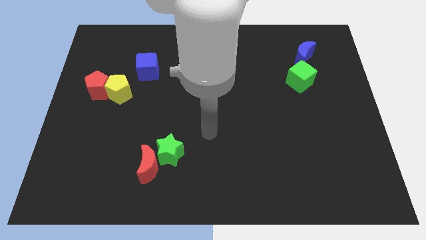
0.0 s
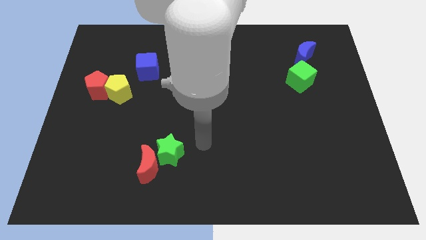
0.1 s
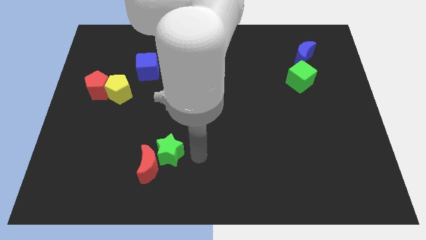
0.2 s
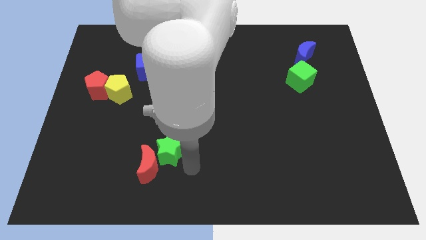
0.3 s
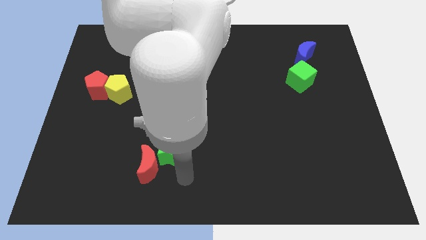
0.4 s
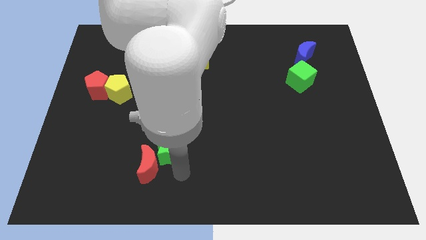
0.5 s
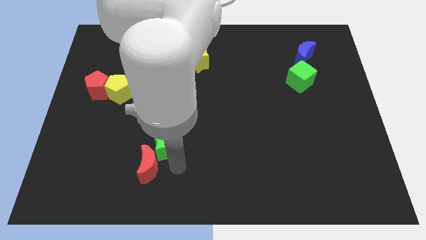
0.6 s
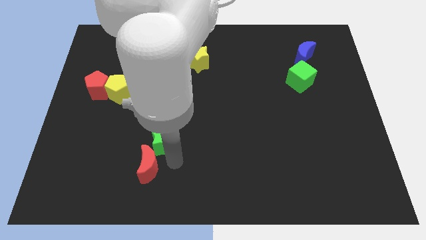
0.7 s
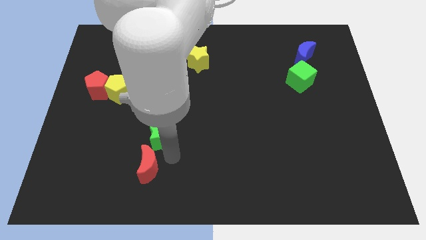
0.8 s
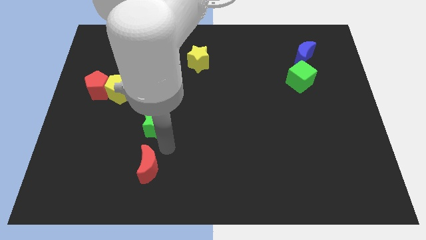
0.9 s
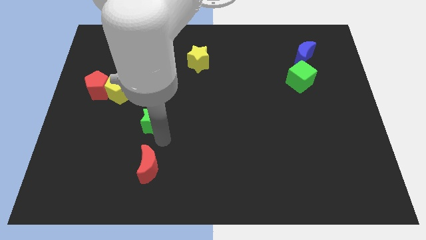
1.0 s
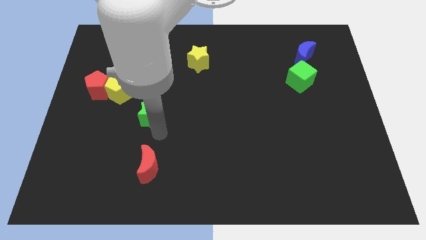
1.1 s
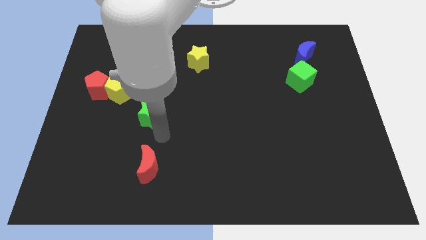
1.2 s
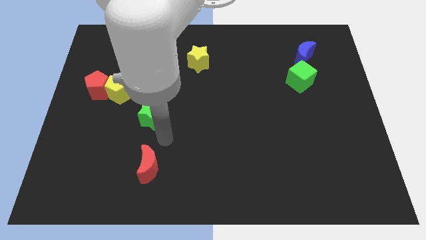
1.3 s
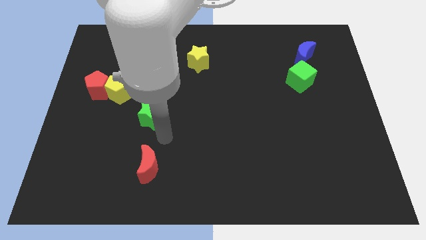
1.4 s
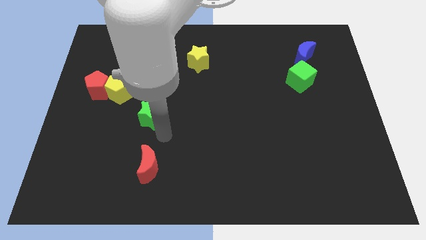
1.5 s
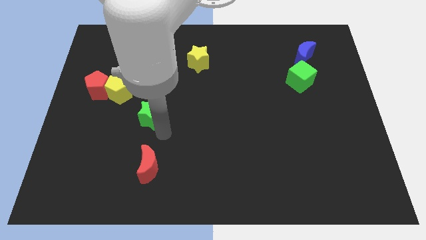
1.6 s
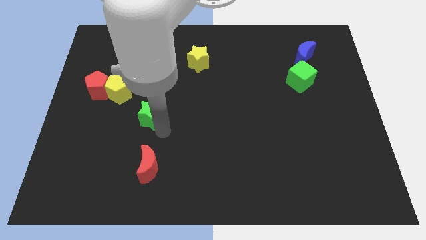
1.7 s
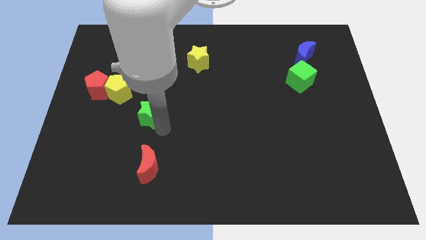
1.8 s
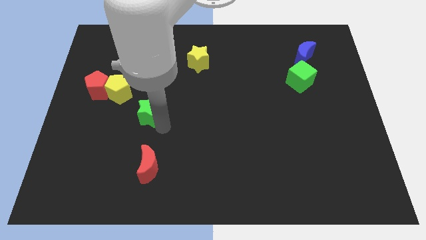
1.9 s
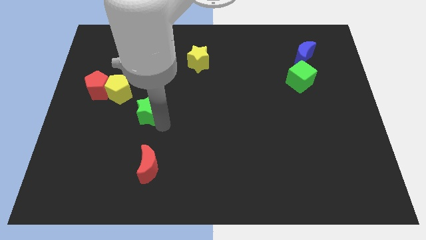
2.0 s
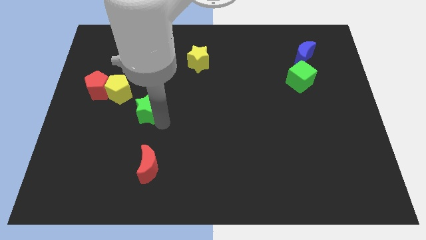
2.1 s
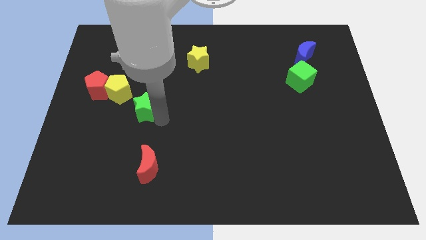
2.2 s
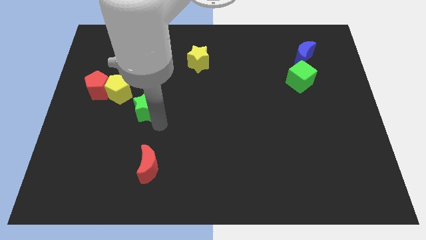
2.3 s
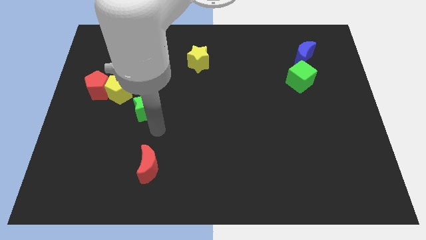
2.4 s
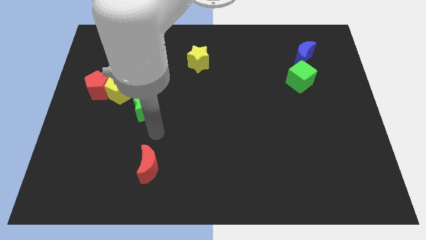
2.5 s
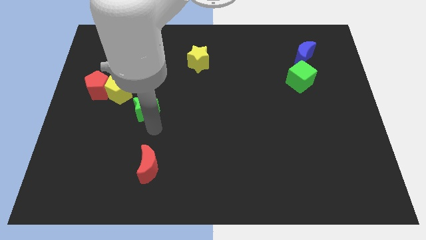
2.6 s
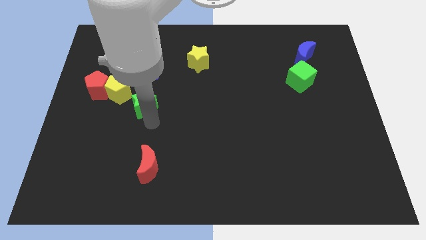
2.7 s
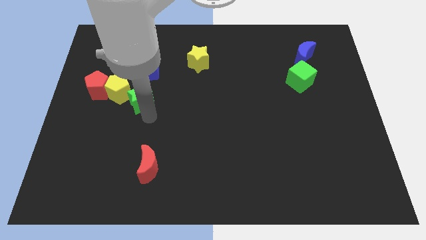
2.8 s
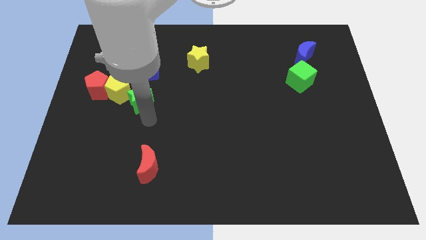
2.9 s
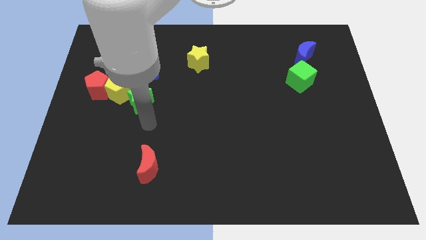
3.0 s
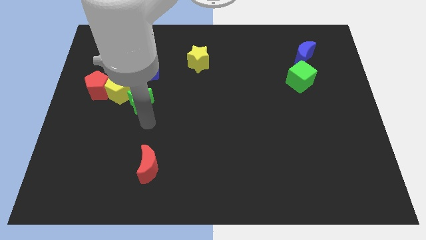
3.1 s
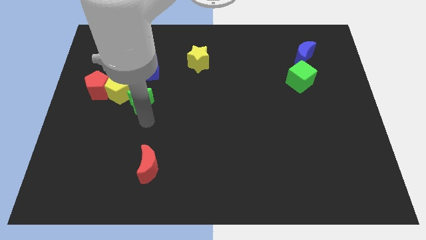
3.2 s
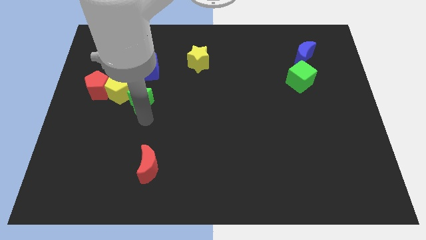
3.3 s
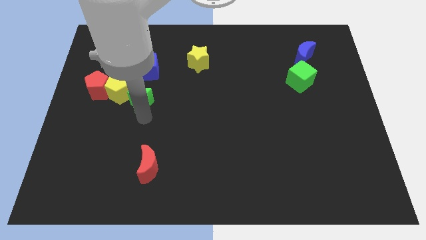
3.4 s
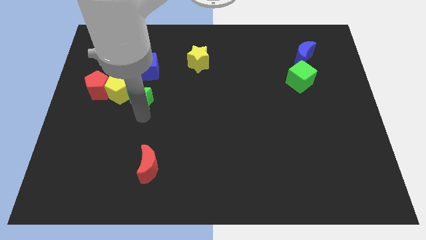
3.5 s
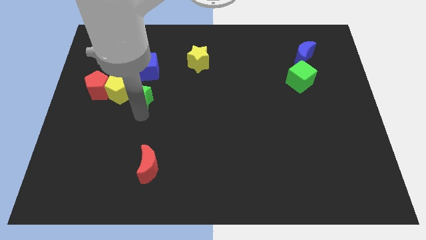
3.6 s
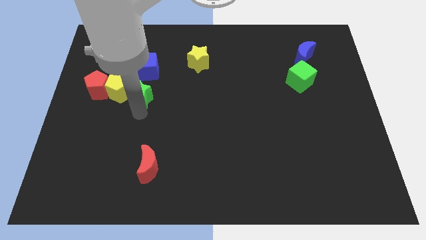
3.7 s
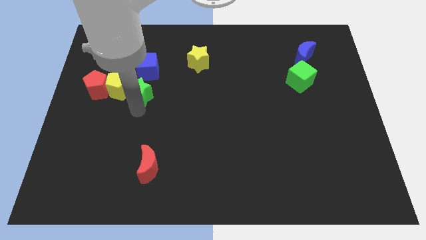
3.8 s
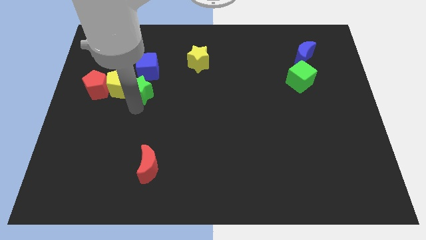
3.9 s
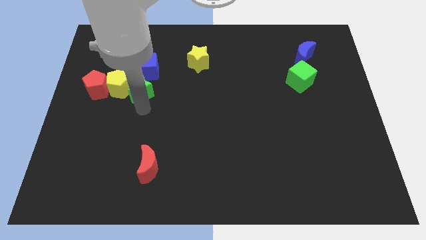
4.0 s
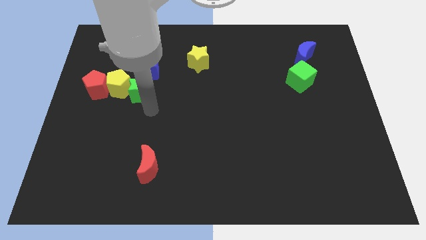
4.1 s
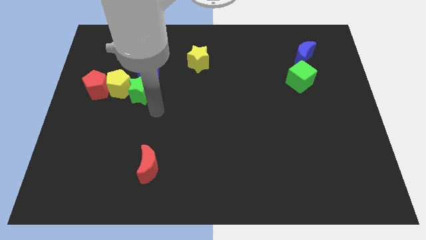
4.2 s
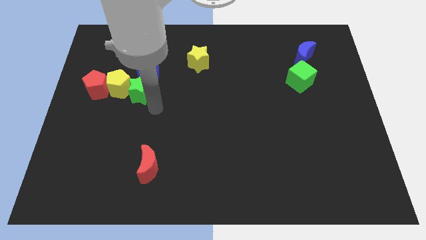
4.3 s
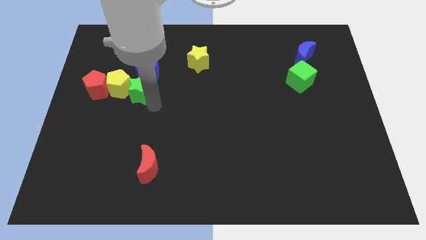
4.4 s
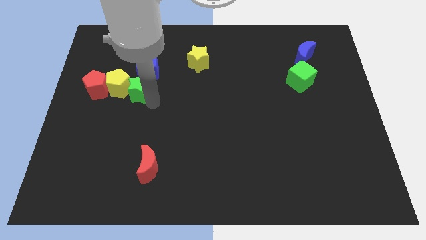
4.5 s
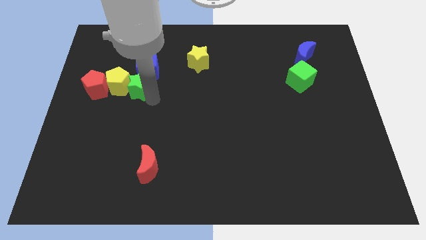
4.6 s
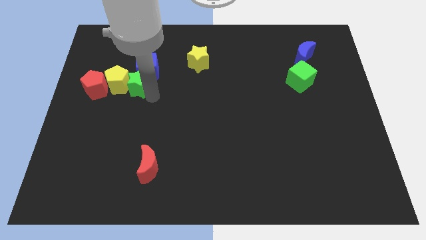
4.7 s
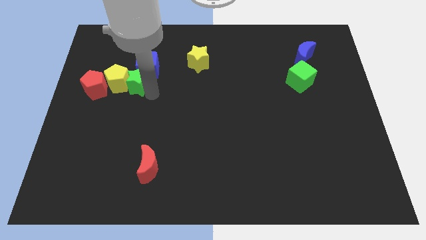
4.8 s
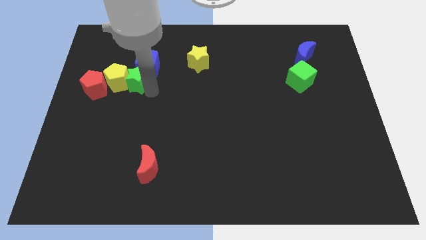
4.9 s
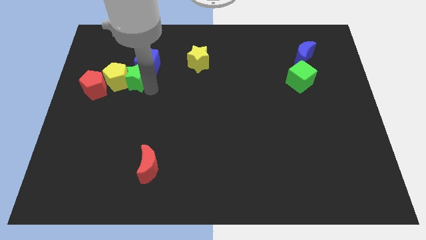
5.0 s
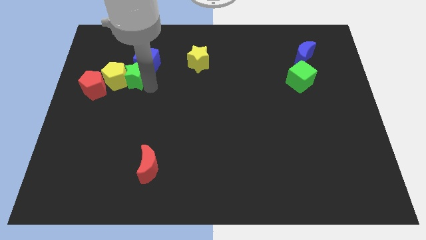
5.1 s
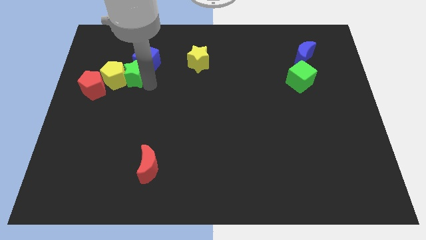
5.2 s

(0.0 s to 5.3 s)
move the green star to the top right side of the red pentagon

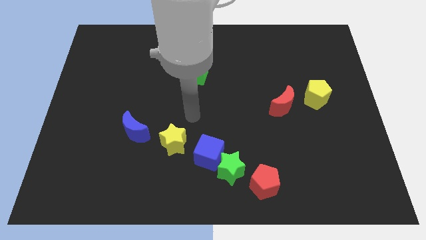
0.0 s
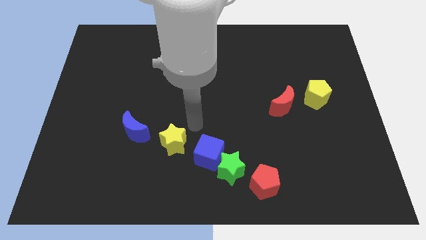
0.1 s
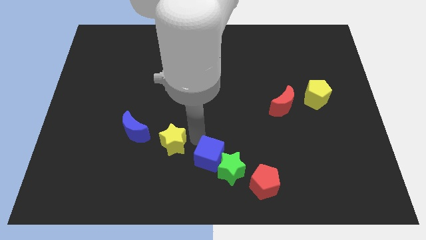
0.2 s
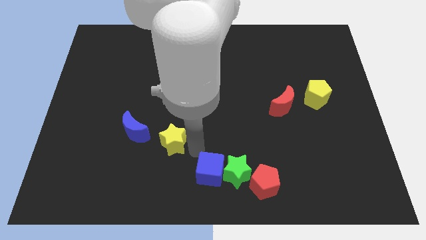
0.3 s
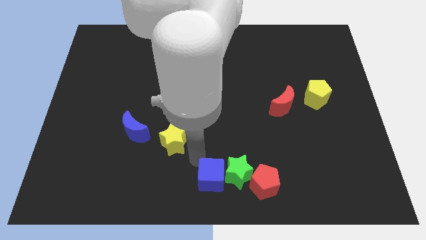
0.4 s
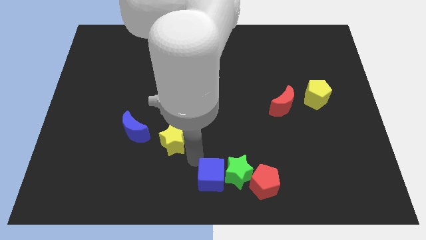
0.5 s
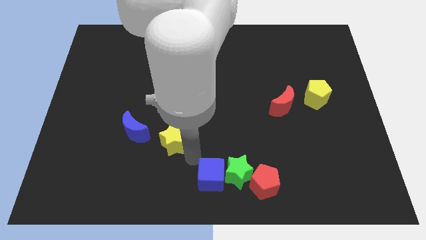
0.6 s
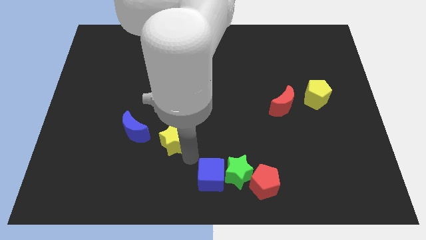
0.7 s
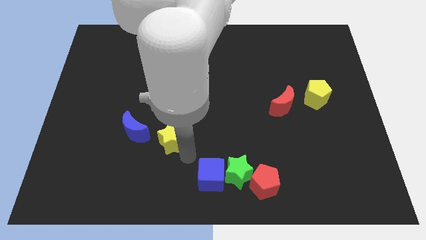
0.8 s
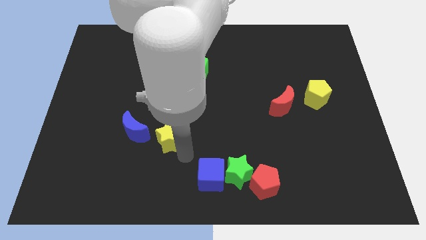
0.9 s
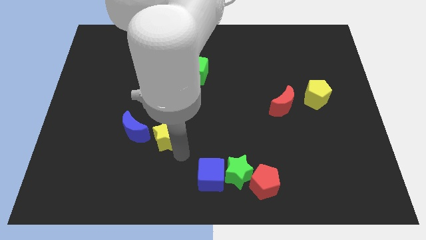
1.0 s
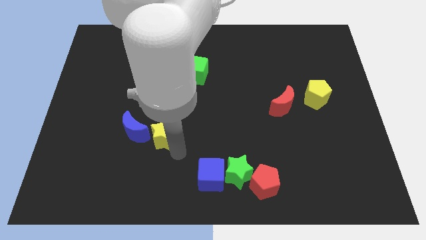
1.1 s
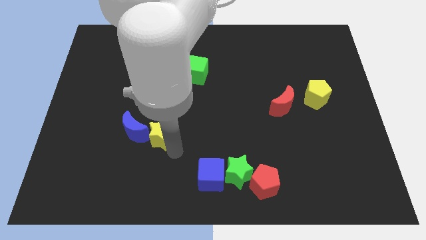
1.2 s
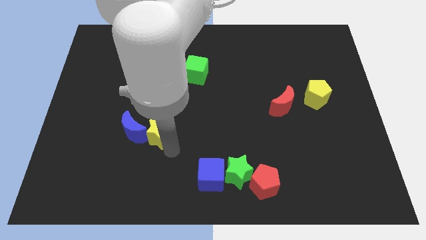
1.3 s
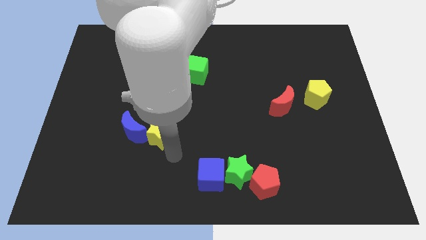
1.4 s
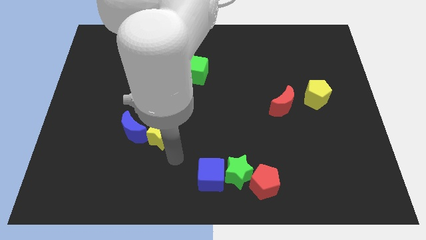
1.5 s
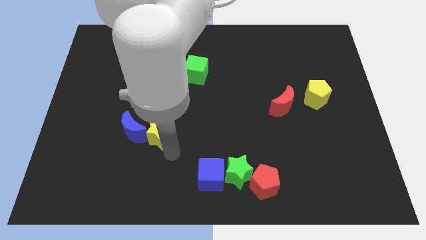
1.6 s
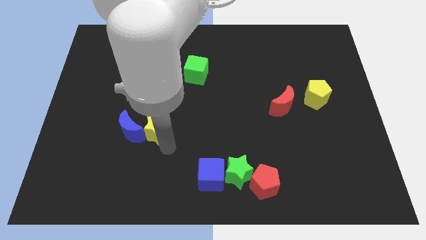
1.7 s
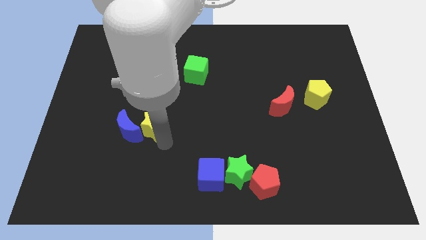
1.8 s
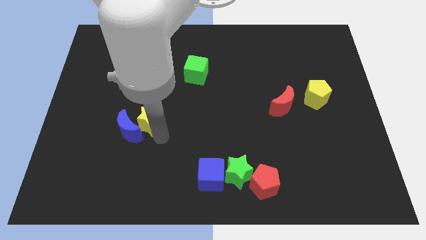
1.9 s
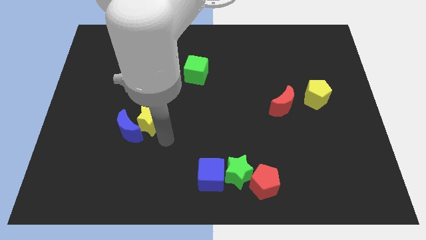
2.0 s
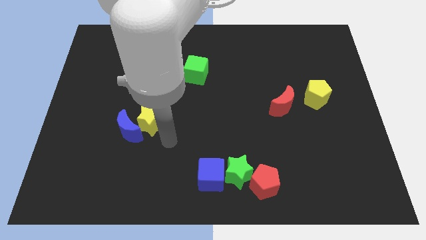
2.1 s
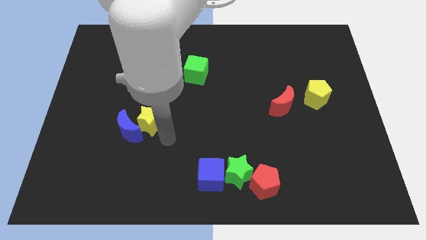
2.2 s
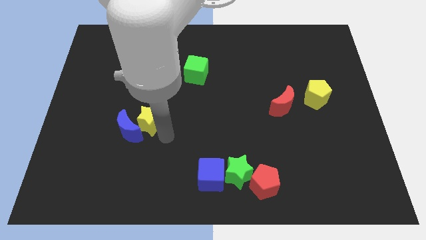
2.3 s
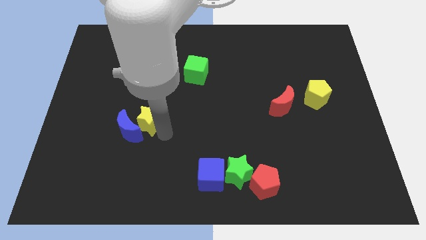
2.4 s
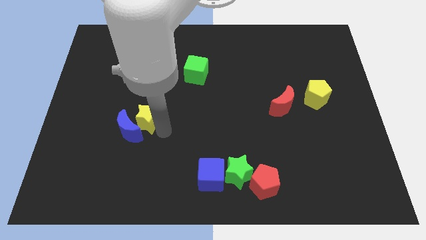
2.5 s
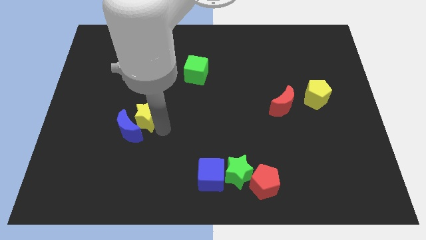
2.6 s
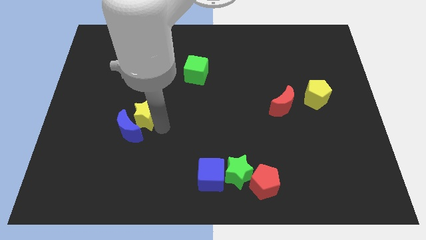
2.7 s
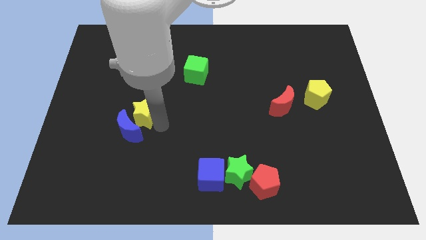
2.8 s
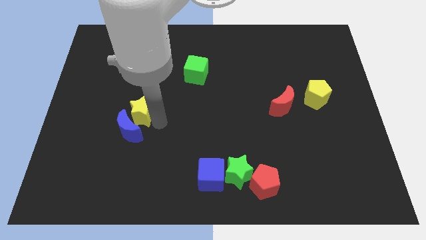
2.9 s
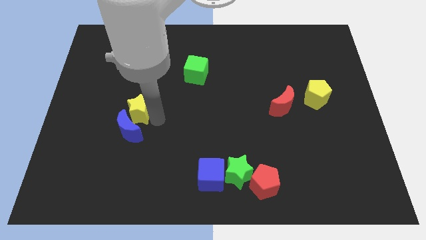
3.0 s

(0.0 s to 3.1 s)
push the yellow star to the top left of the blue moon

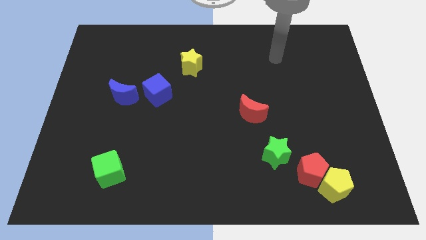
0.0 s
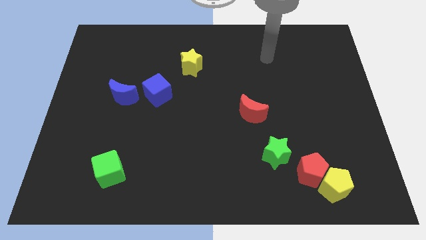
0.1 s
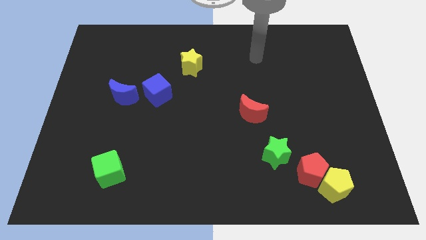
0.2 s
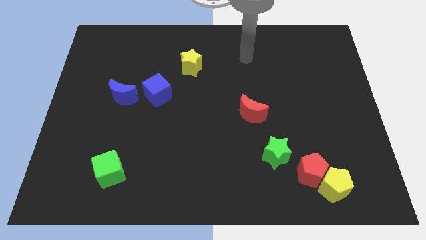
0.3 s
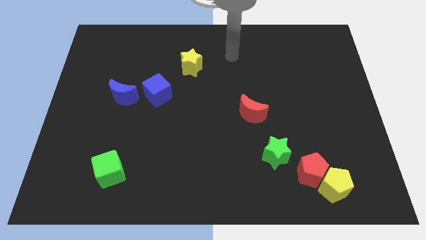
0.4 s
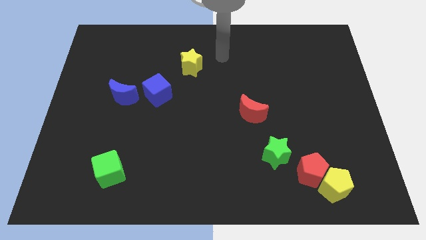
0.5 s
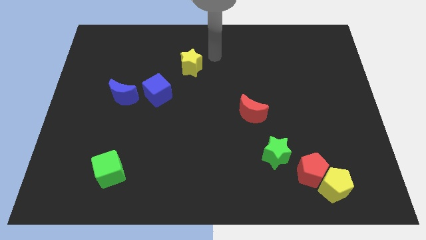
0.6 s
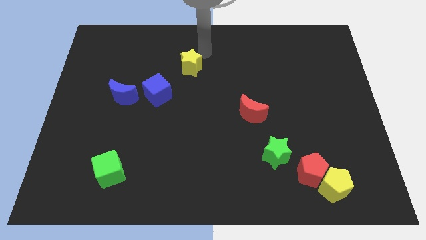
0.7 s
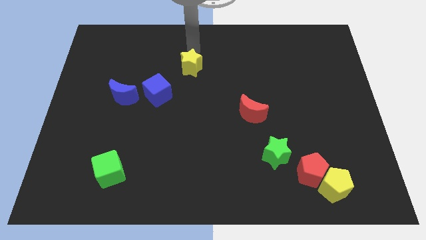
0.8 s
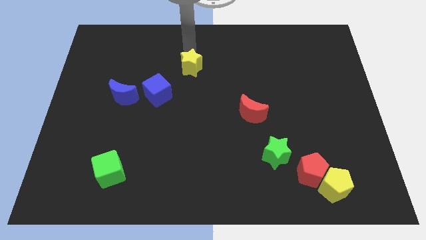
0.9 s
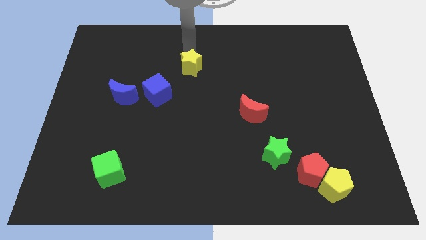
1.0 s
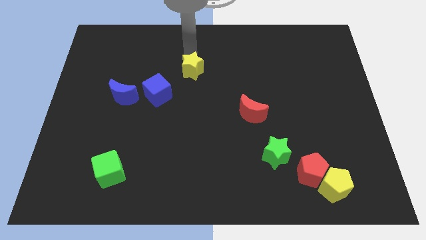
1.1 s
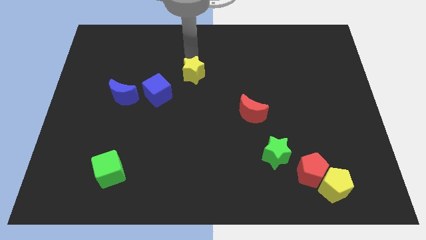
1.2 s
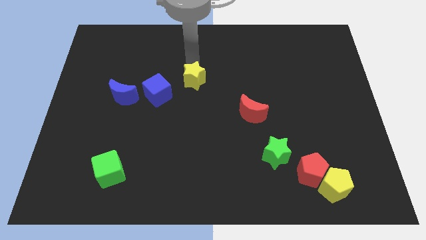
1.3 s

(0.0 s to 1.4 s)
slide the yellow star to the right of the blue cube
